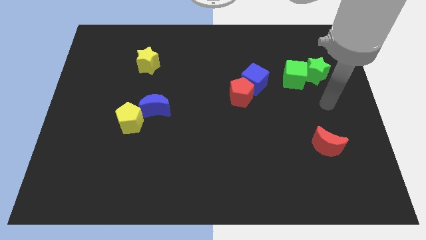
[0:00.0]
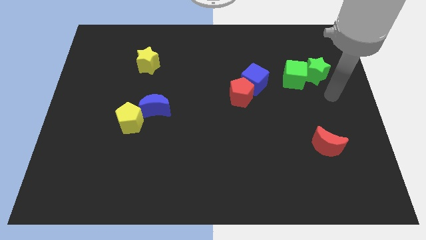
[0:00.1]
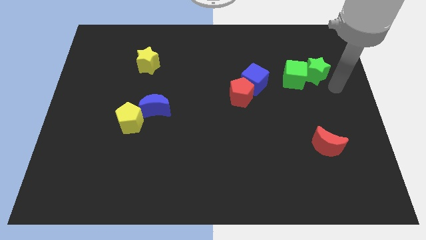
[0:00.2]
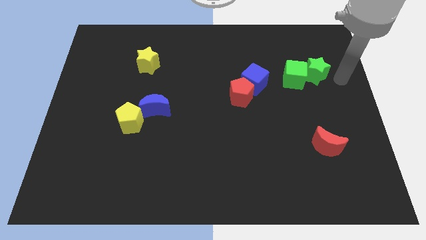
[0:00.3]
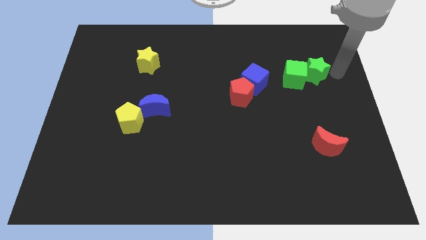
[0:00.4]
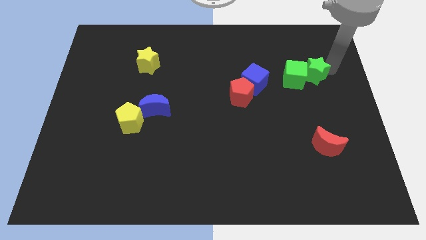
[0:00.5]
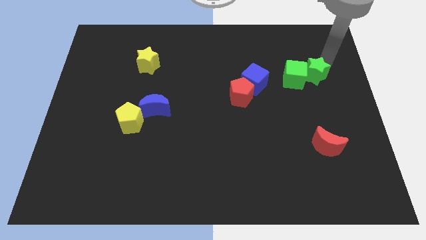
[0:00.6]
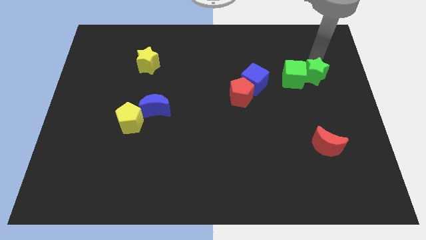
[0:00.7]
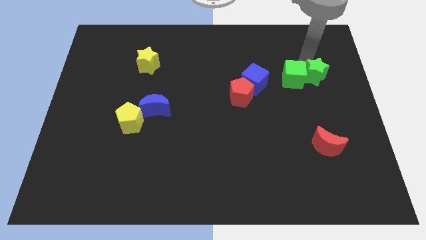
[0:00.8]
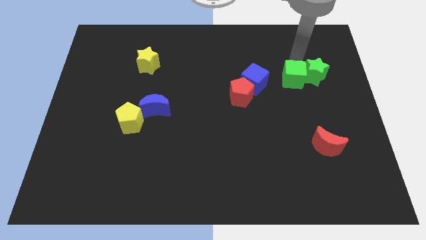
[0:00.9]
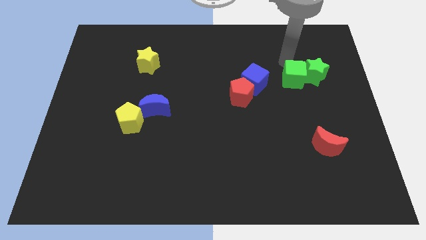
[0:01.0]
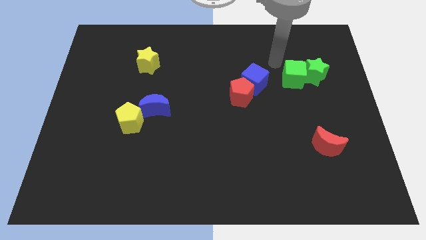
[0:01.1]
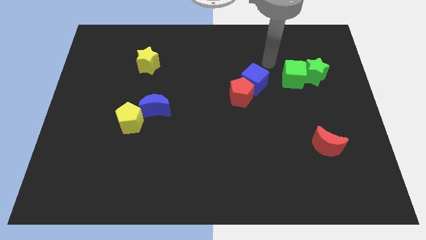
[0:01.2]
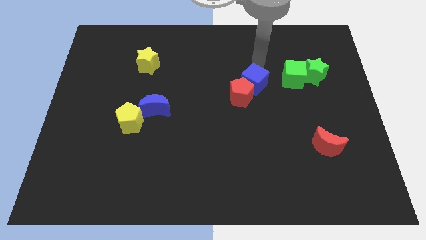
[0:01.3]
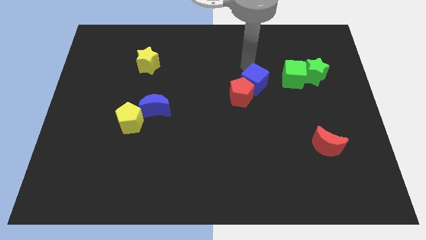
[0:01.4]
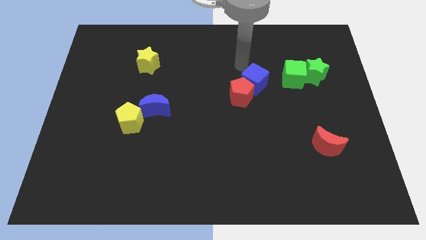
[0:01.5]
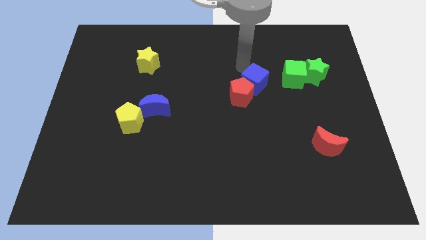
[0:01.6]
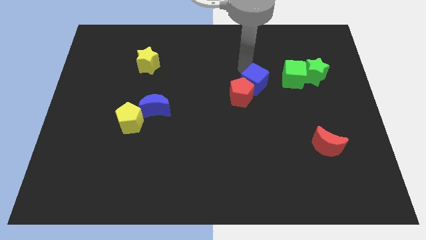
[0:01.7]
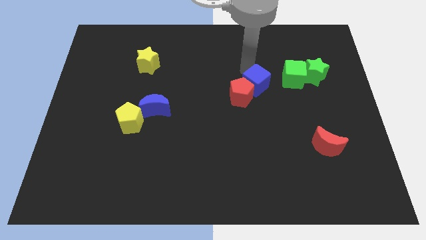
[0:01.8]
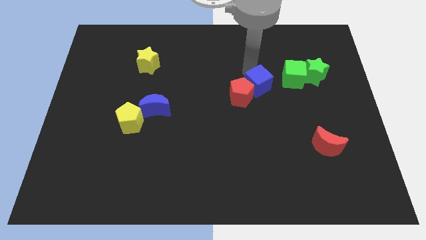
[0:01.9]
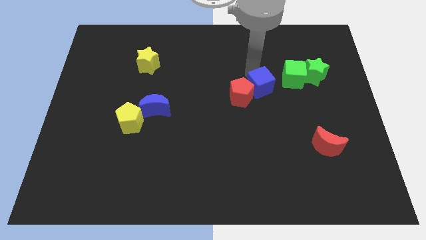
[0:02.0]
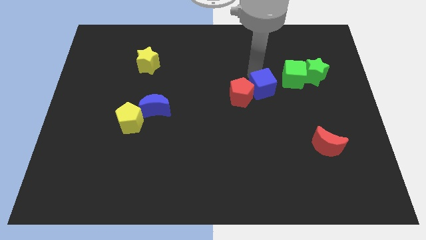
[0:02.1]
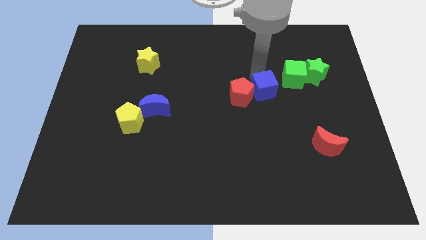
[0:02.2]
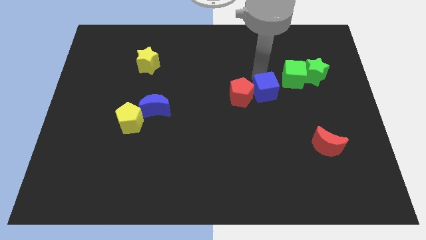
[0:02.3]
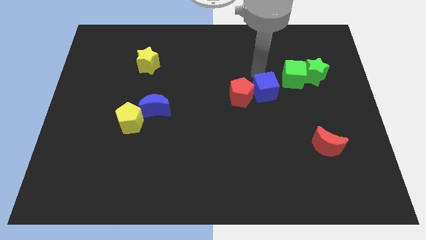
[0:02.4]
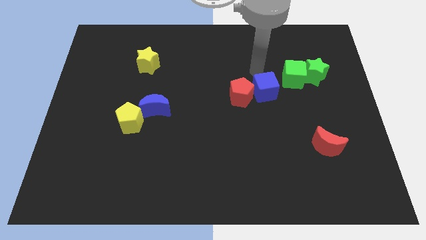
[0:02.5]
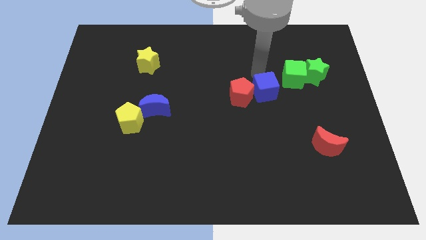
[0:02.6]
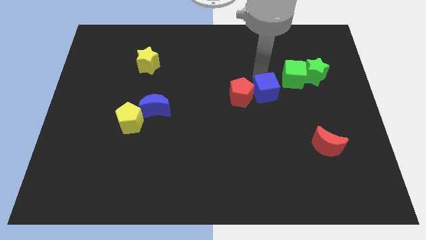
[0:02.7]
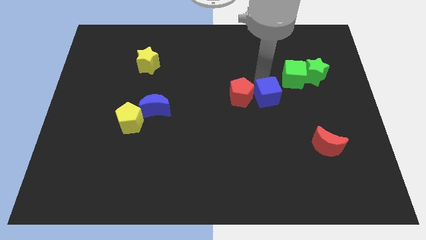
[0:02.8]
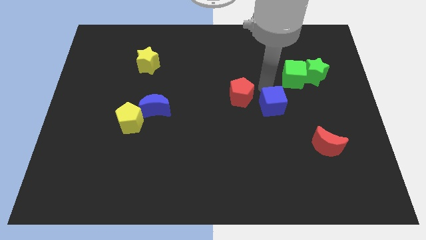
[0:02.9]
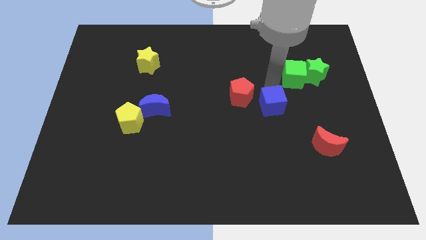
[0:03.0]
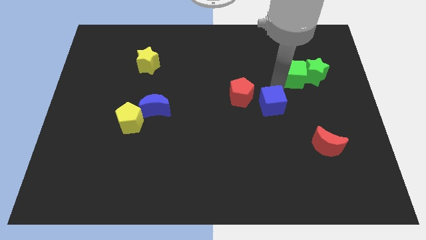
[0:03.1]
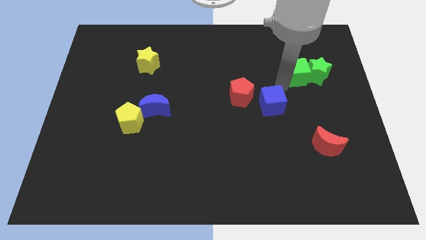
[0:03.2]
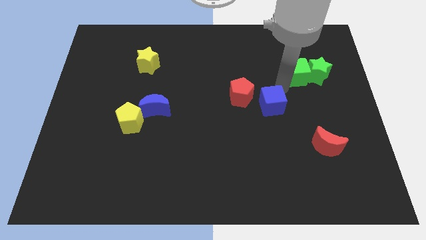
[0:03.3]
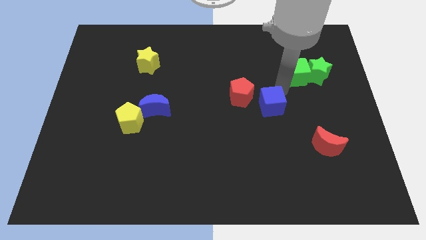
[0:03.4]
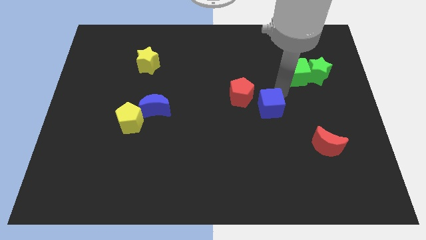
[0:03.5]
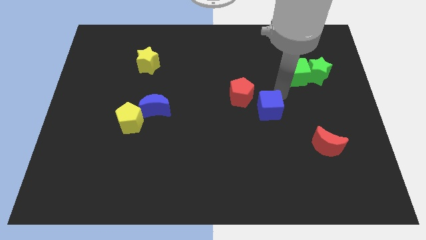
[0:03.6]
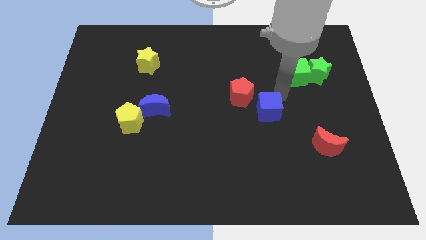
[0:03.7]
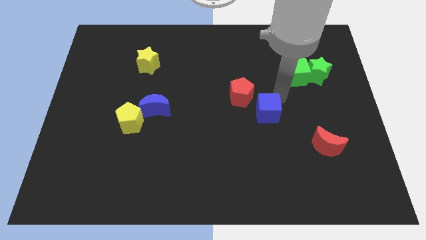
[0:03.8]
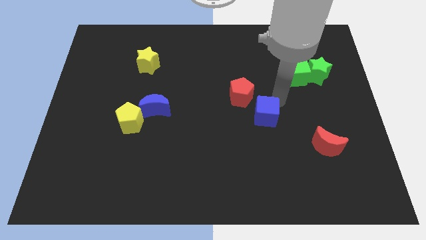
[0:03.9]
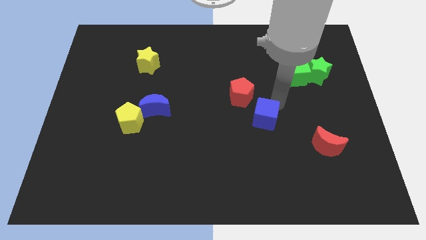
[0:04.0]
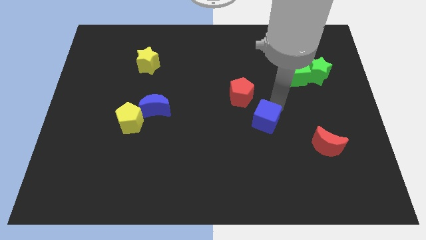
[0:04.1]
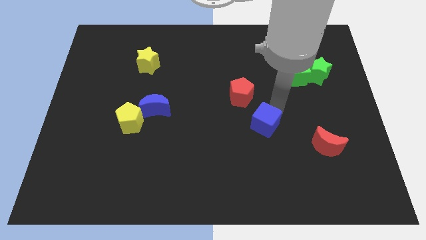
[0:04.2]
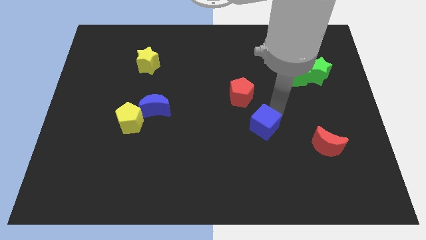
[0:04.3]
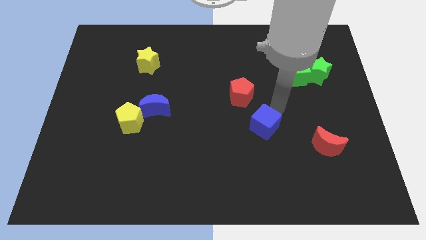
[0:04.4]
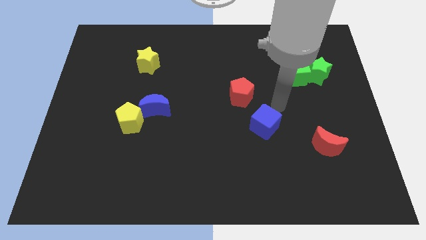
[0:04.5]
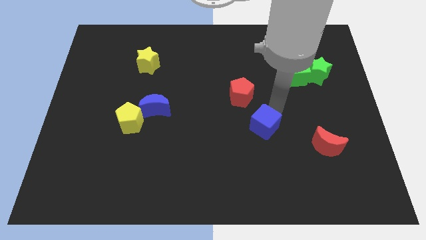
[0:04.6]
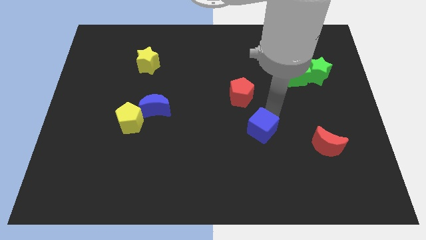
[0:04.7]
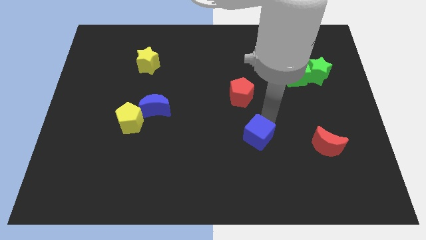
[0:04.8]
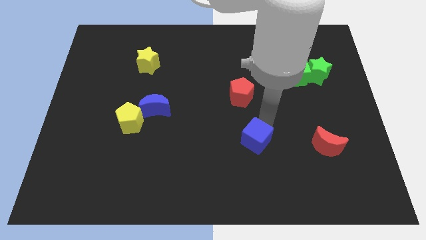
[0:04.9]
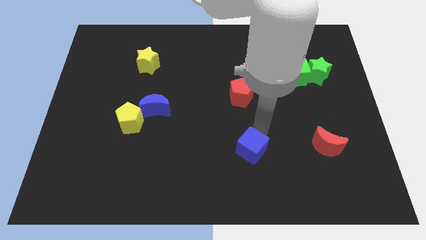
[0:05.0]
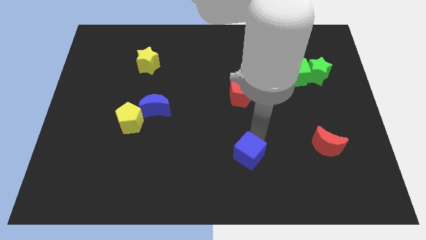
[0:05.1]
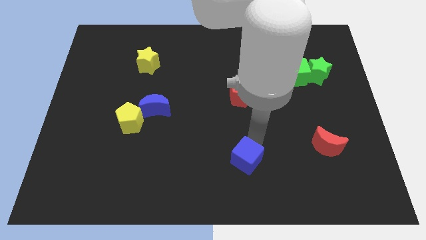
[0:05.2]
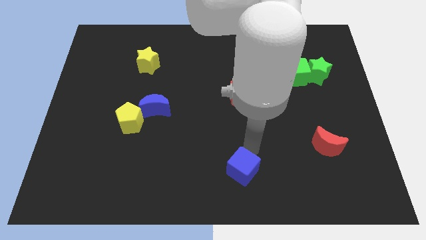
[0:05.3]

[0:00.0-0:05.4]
move the blue cube to the bottom
